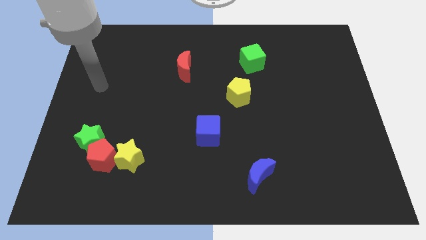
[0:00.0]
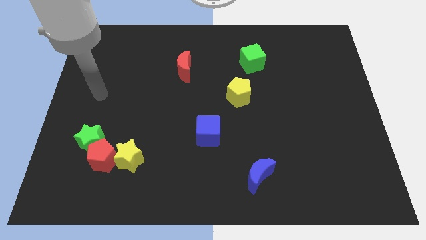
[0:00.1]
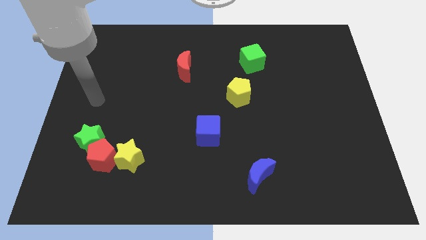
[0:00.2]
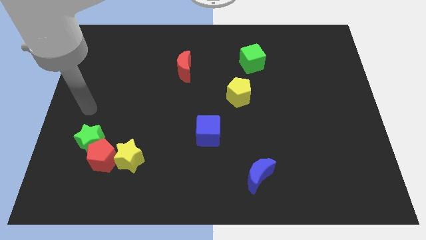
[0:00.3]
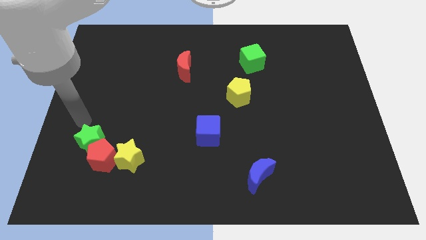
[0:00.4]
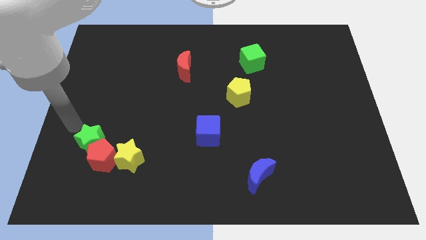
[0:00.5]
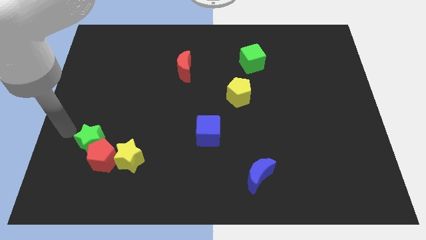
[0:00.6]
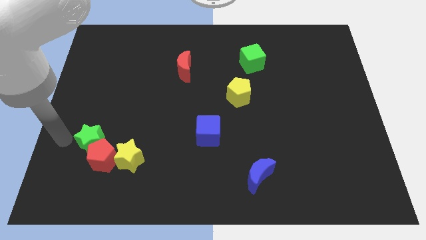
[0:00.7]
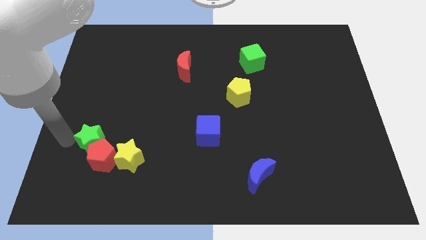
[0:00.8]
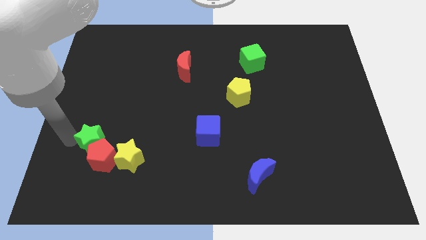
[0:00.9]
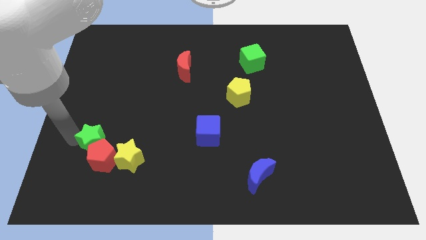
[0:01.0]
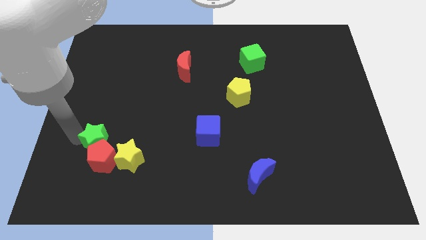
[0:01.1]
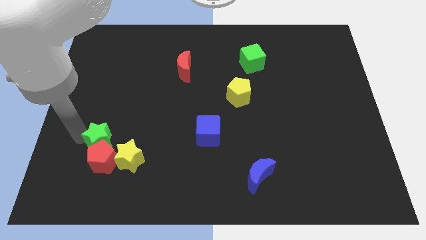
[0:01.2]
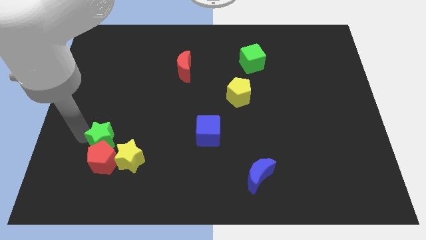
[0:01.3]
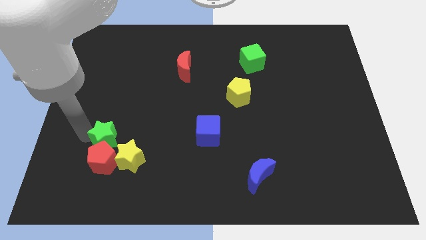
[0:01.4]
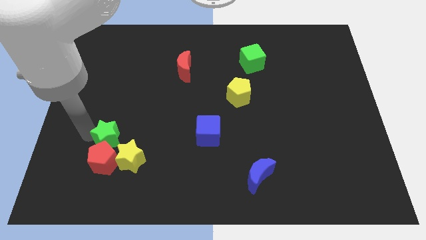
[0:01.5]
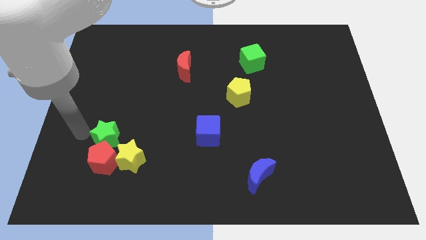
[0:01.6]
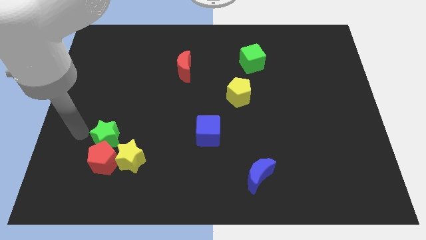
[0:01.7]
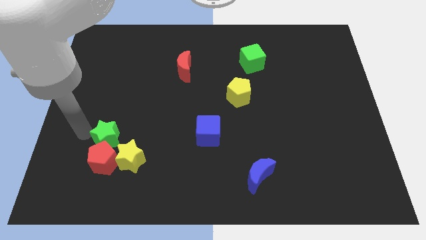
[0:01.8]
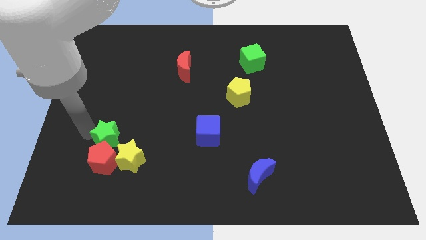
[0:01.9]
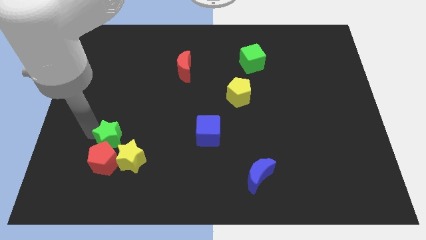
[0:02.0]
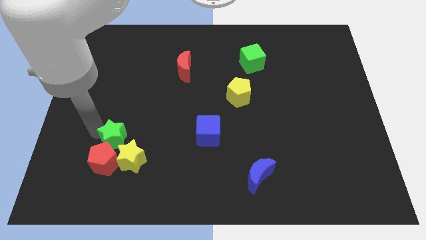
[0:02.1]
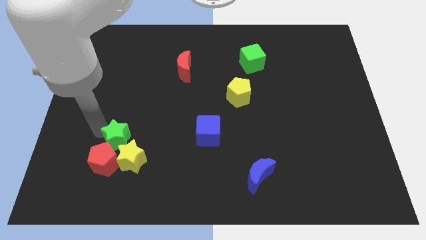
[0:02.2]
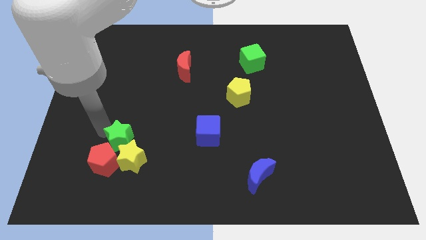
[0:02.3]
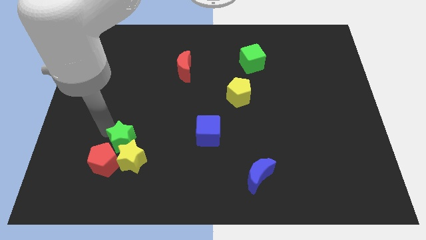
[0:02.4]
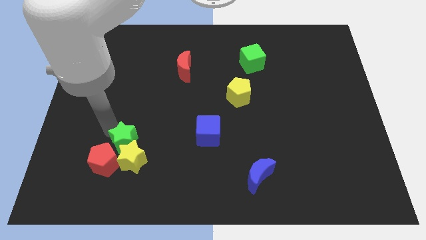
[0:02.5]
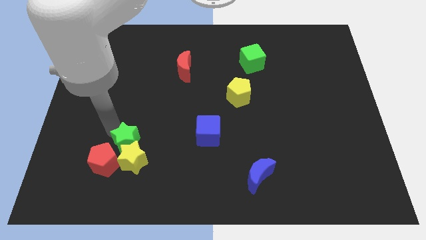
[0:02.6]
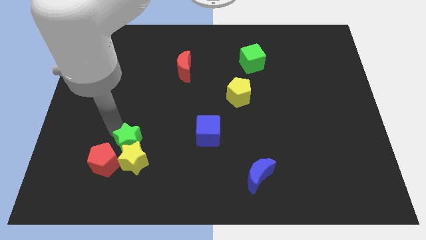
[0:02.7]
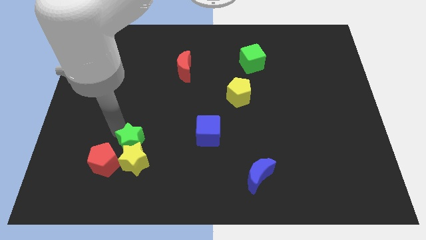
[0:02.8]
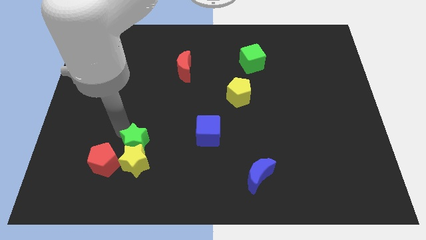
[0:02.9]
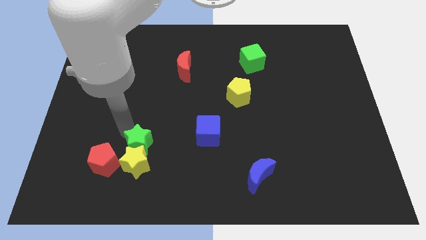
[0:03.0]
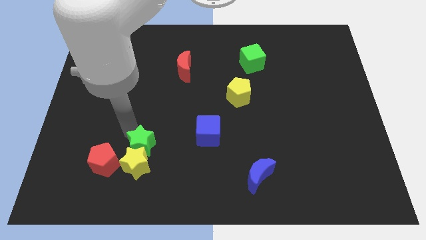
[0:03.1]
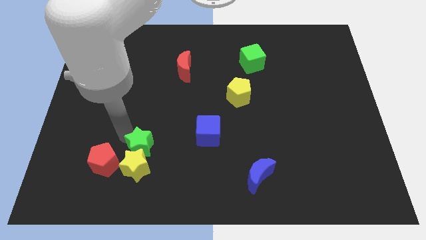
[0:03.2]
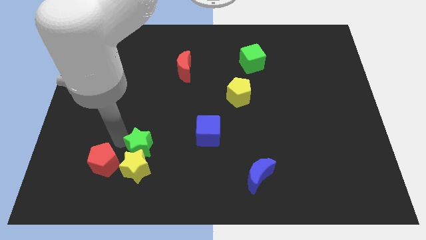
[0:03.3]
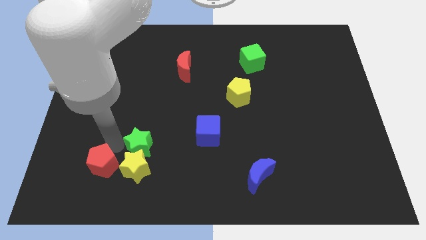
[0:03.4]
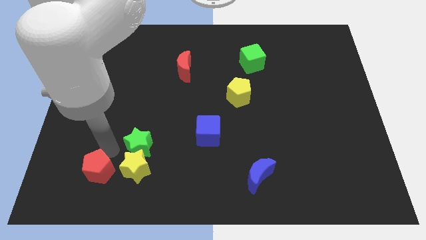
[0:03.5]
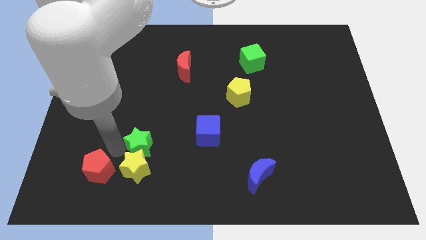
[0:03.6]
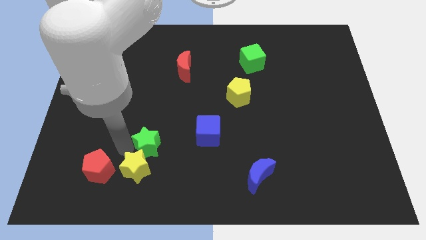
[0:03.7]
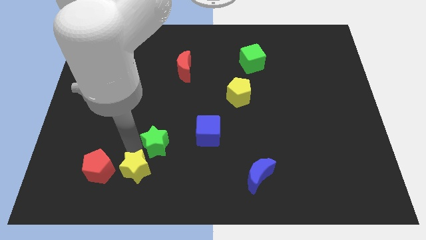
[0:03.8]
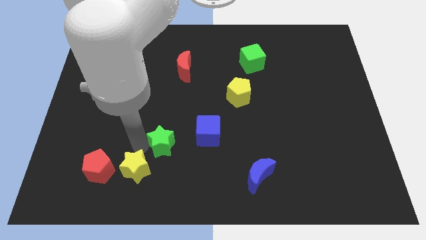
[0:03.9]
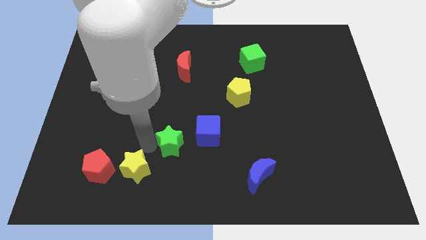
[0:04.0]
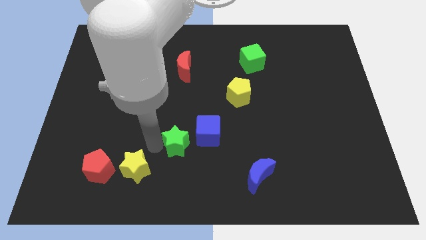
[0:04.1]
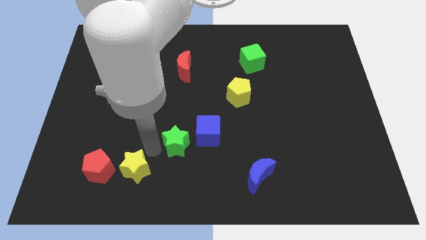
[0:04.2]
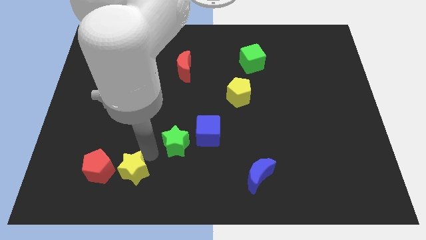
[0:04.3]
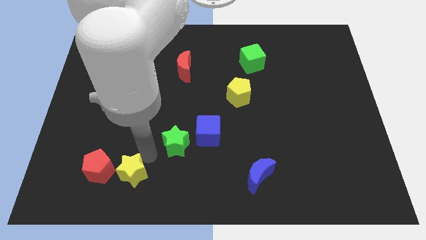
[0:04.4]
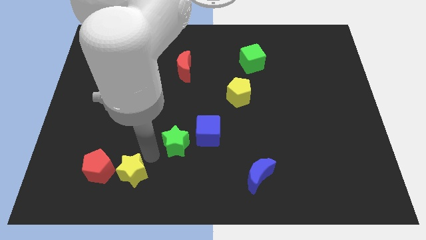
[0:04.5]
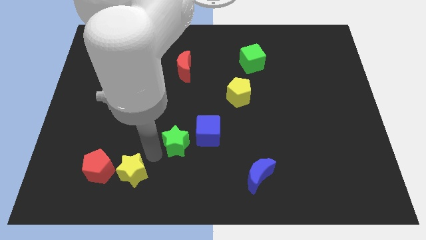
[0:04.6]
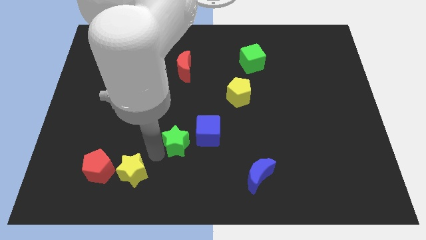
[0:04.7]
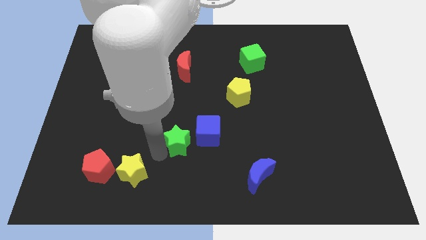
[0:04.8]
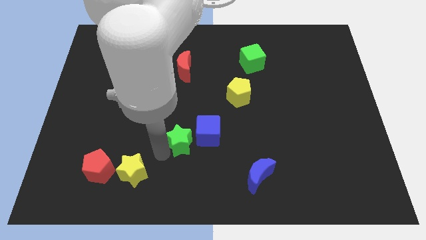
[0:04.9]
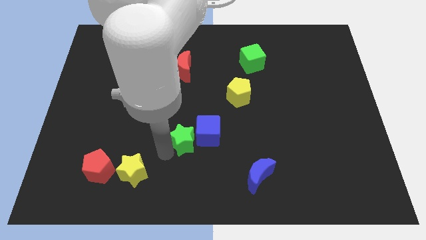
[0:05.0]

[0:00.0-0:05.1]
slide the green star next to the blue cube

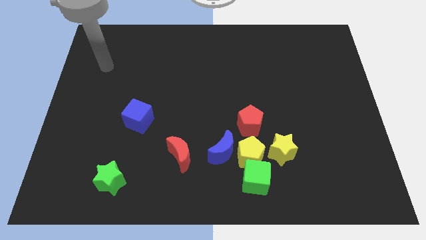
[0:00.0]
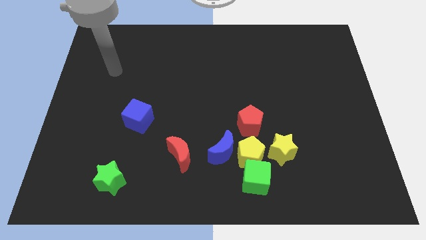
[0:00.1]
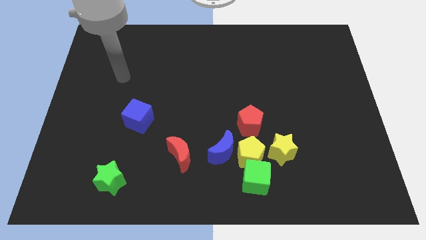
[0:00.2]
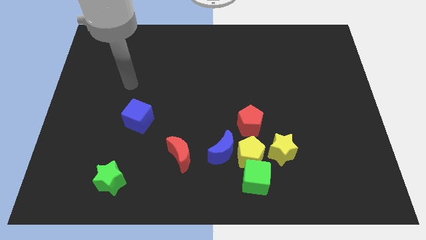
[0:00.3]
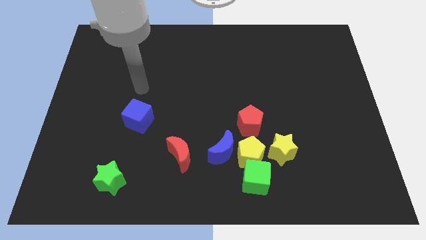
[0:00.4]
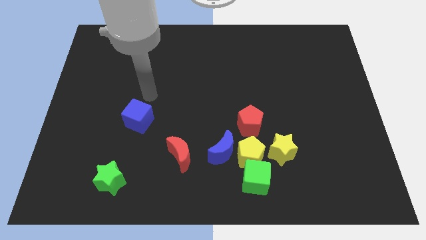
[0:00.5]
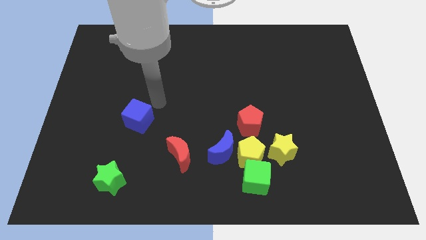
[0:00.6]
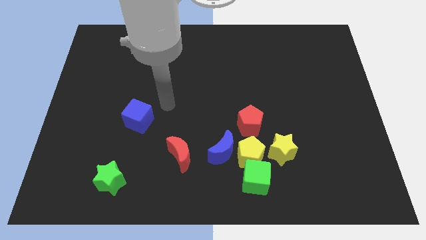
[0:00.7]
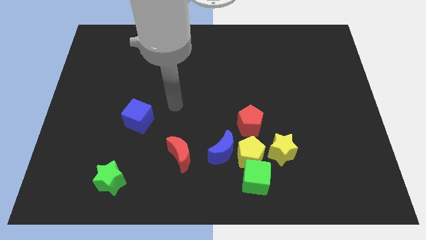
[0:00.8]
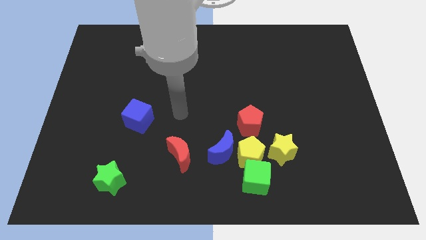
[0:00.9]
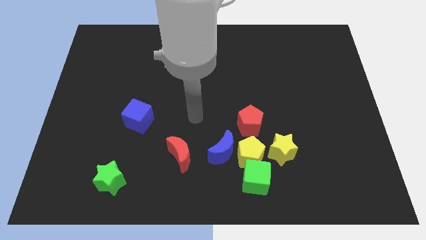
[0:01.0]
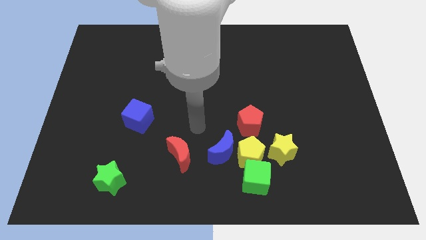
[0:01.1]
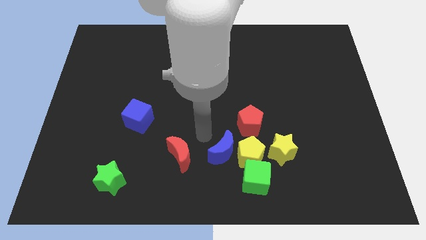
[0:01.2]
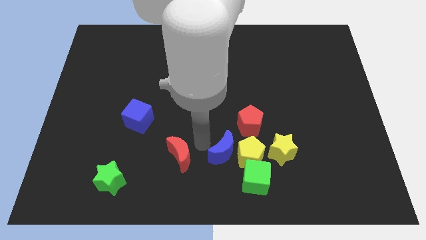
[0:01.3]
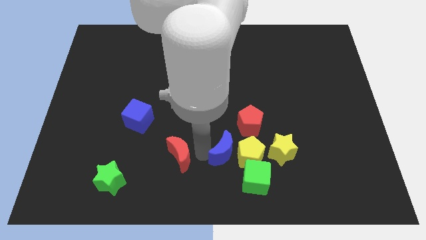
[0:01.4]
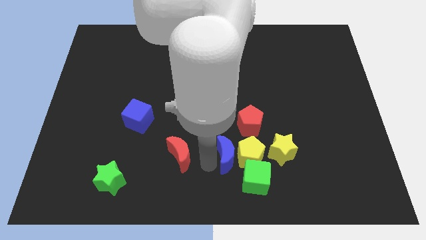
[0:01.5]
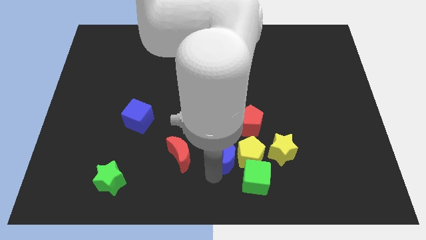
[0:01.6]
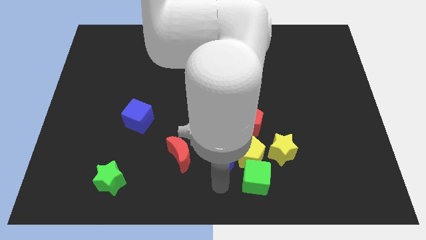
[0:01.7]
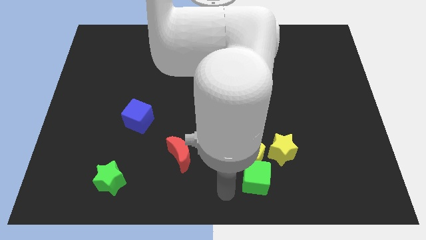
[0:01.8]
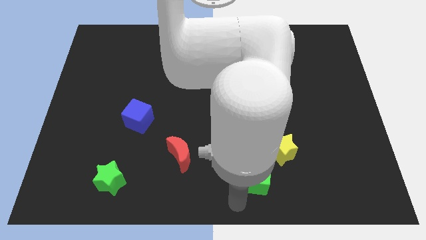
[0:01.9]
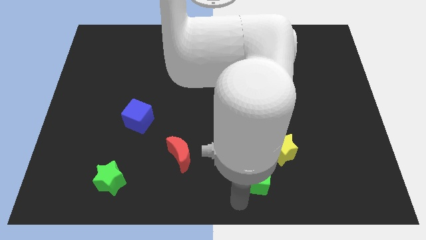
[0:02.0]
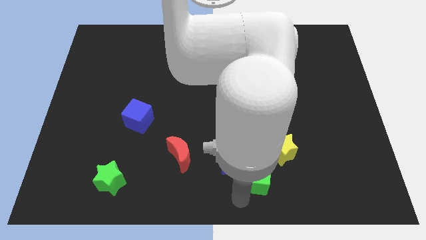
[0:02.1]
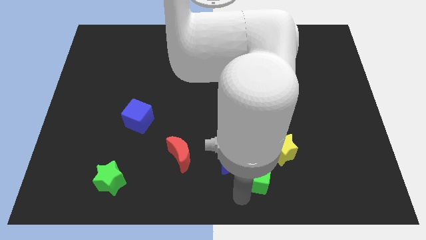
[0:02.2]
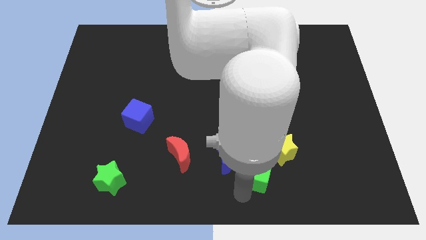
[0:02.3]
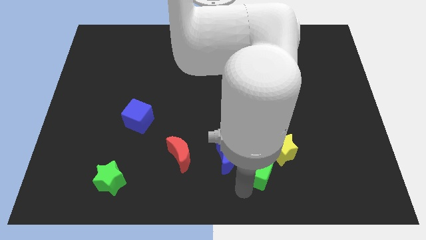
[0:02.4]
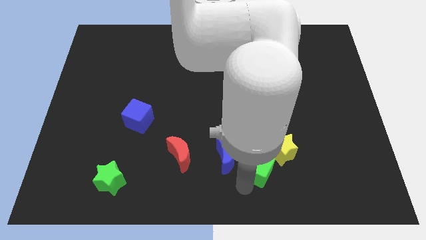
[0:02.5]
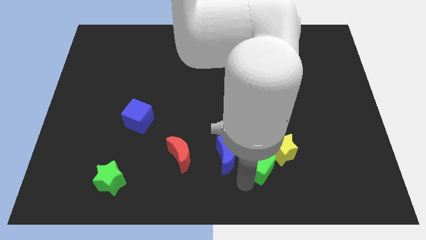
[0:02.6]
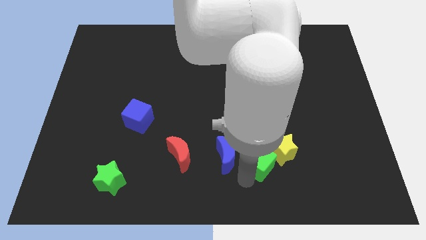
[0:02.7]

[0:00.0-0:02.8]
push the green cube close to the yellow star
